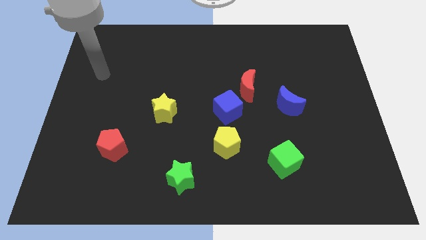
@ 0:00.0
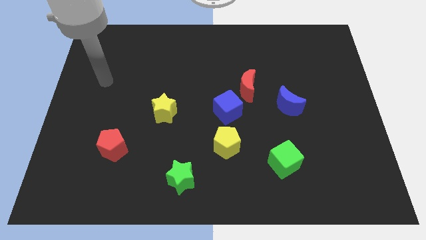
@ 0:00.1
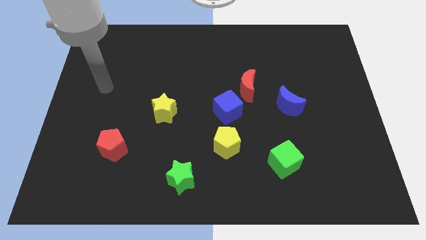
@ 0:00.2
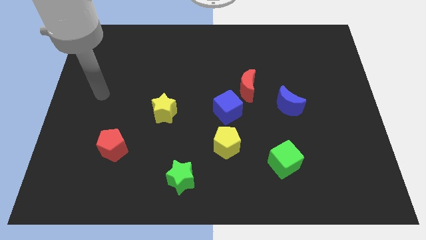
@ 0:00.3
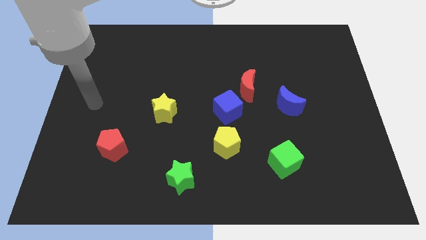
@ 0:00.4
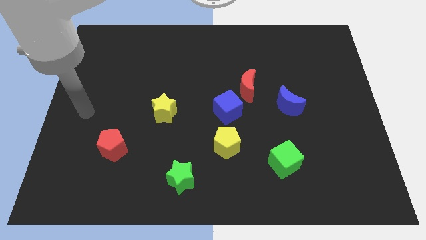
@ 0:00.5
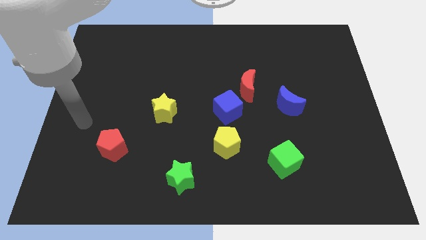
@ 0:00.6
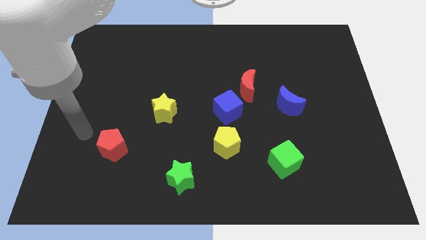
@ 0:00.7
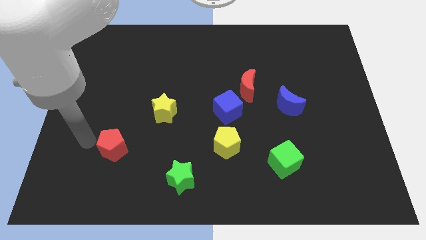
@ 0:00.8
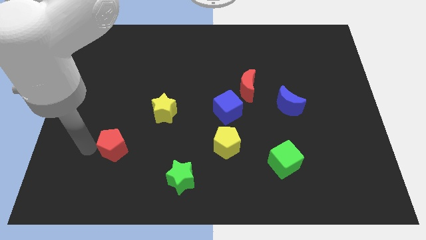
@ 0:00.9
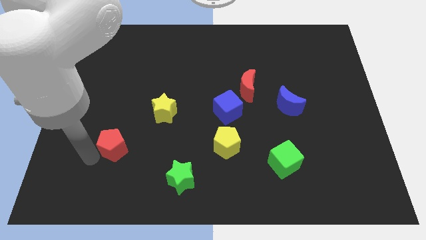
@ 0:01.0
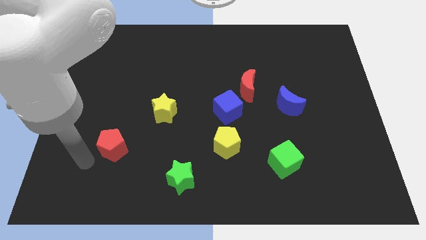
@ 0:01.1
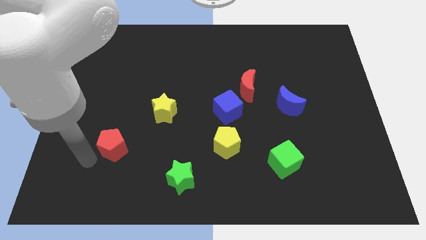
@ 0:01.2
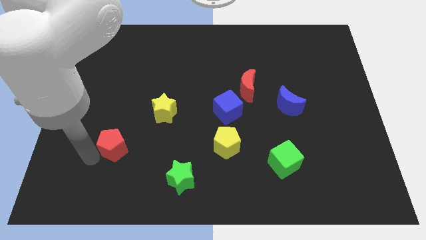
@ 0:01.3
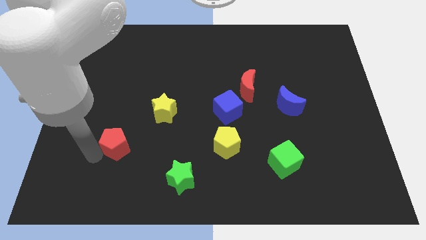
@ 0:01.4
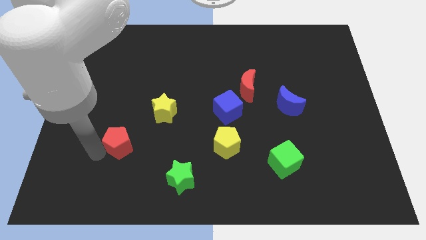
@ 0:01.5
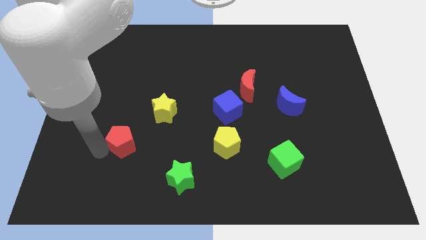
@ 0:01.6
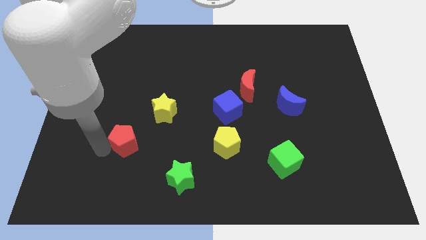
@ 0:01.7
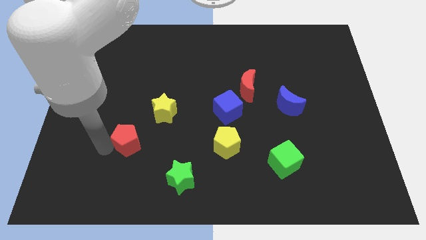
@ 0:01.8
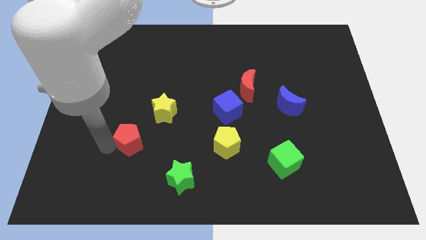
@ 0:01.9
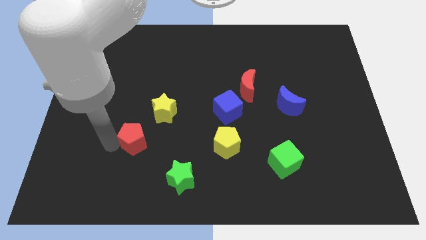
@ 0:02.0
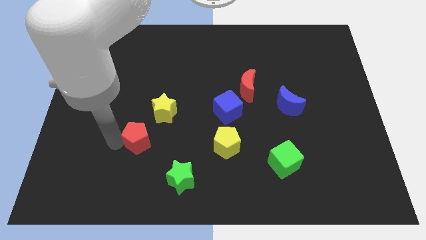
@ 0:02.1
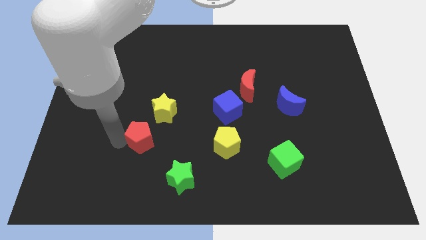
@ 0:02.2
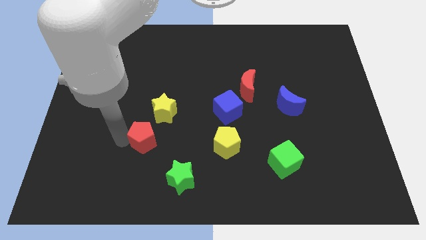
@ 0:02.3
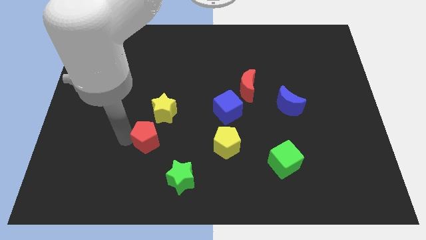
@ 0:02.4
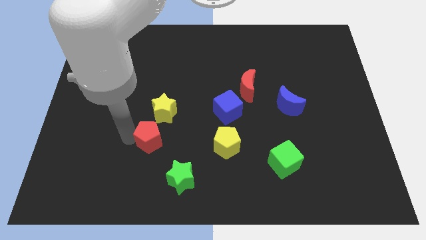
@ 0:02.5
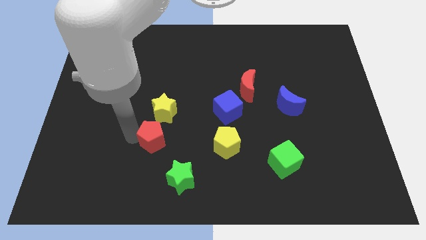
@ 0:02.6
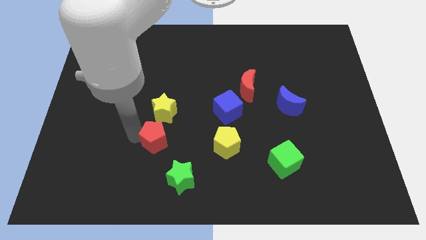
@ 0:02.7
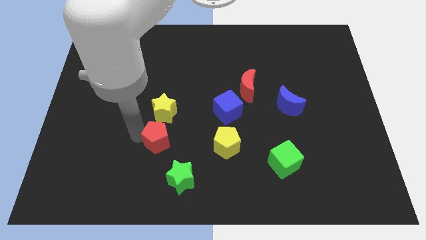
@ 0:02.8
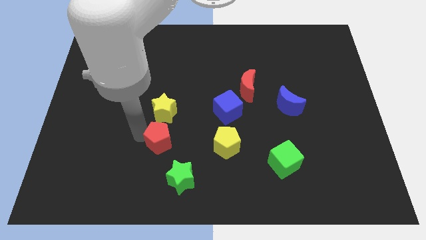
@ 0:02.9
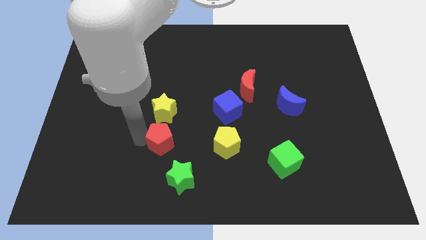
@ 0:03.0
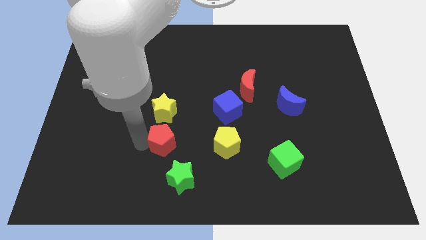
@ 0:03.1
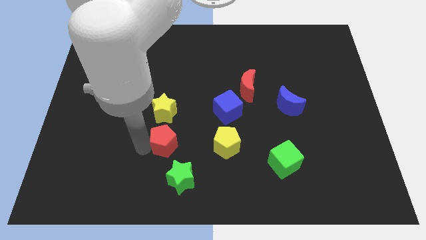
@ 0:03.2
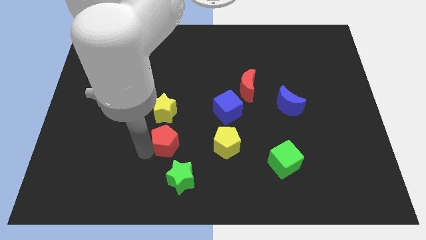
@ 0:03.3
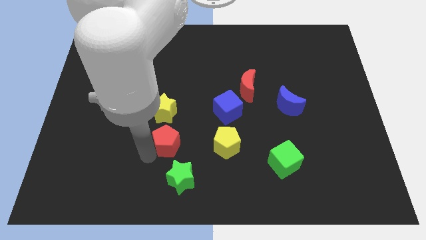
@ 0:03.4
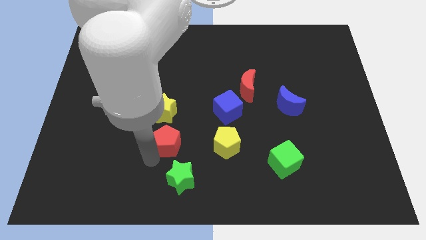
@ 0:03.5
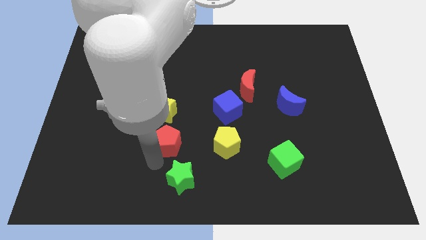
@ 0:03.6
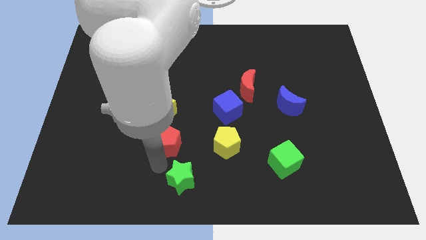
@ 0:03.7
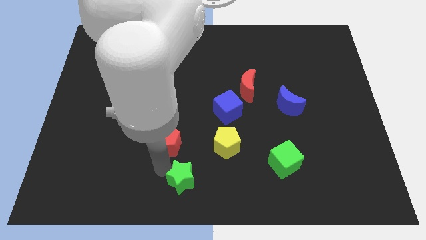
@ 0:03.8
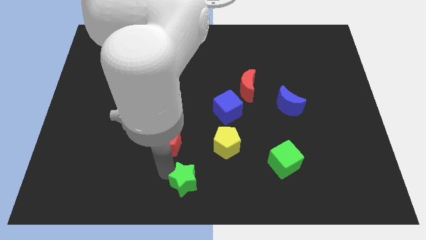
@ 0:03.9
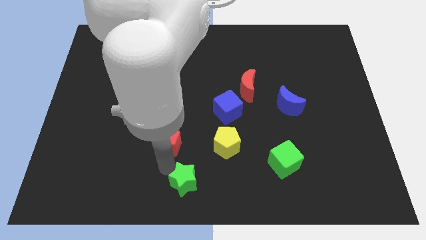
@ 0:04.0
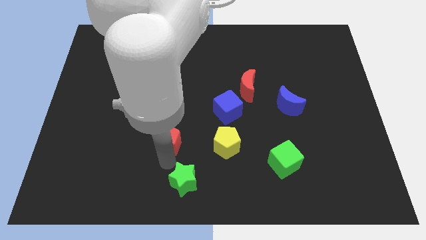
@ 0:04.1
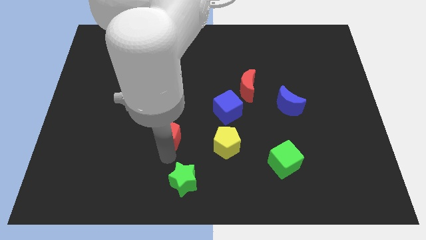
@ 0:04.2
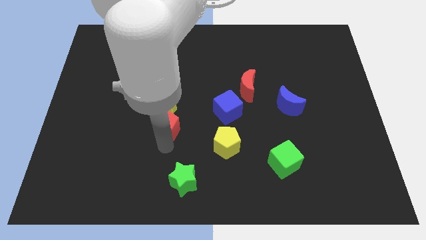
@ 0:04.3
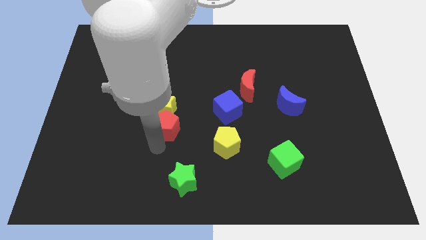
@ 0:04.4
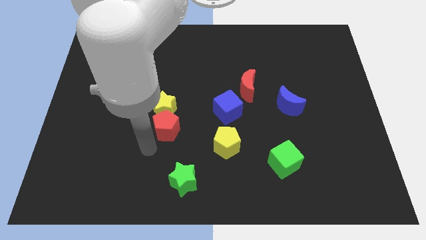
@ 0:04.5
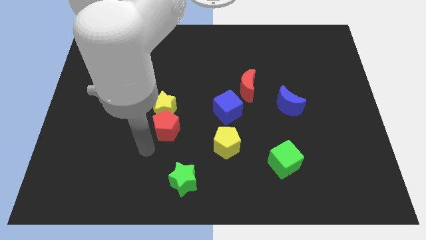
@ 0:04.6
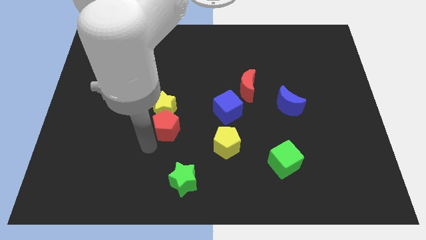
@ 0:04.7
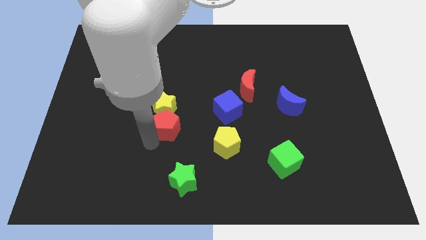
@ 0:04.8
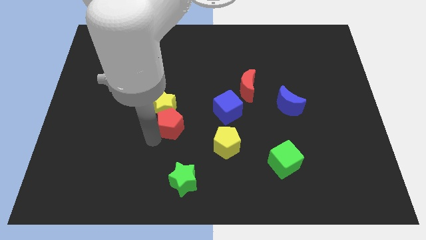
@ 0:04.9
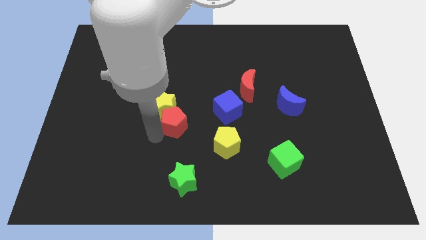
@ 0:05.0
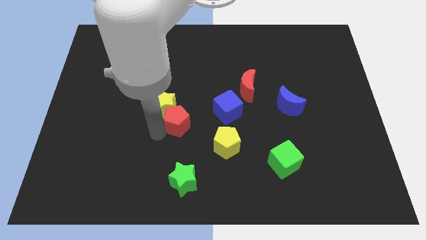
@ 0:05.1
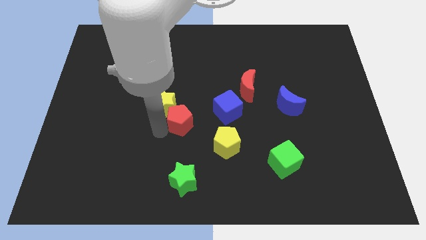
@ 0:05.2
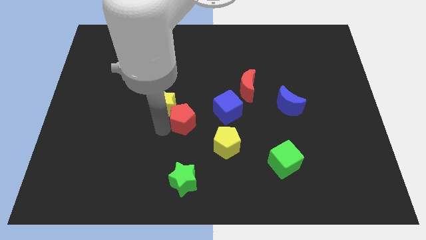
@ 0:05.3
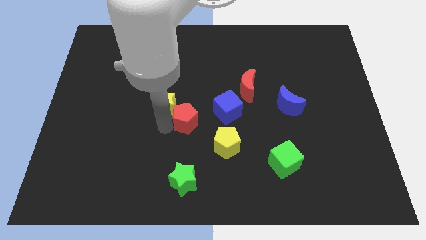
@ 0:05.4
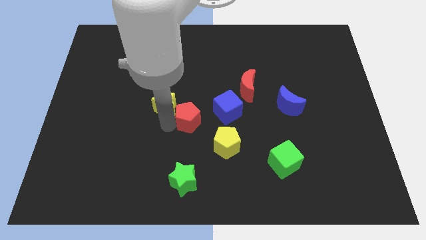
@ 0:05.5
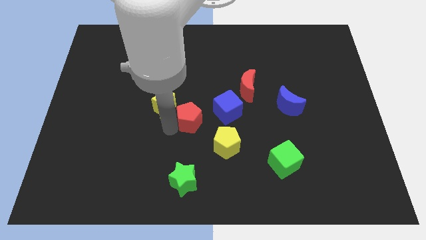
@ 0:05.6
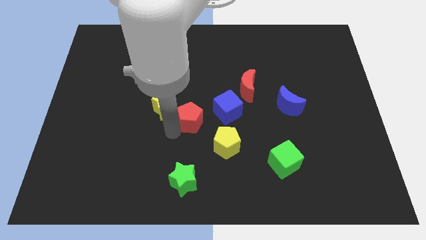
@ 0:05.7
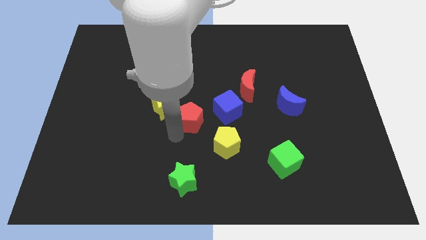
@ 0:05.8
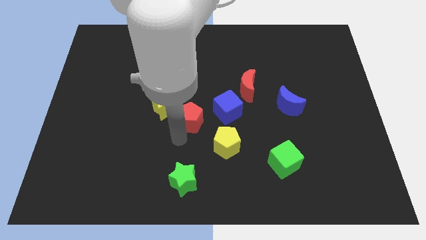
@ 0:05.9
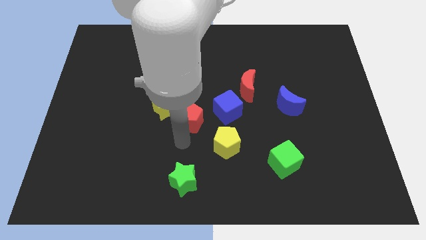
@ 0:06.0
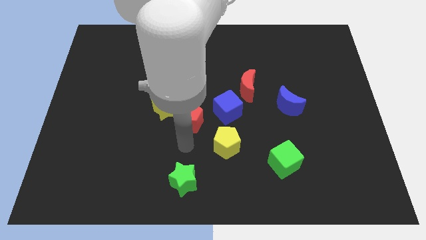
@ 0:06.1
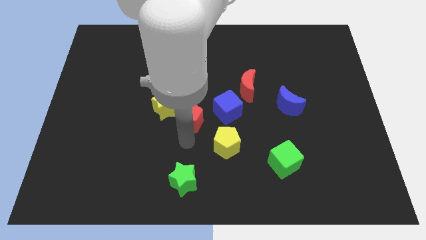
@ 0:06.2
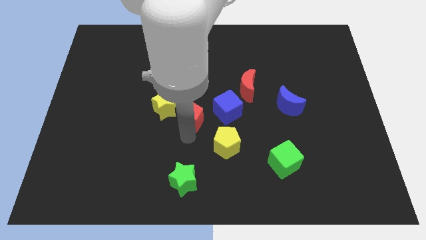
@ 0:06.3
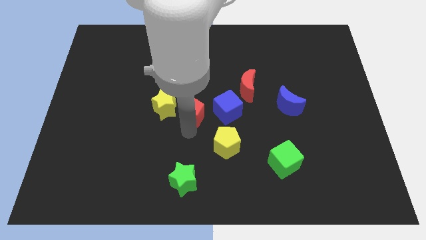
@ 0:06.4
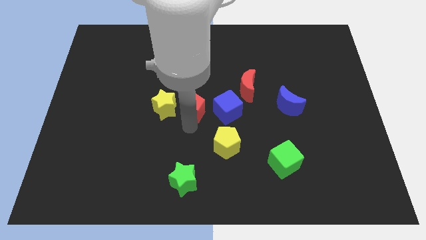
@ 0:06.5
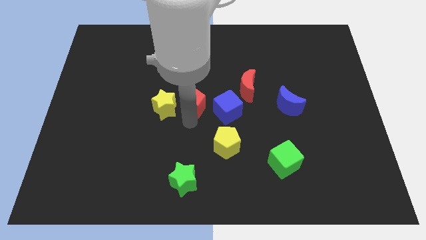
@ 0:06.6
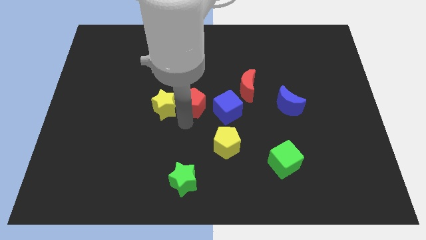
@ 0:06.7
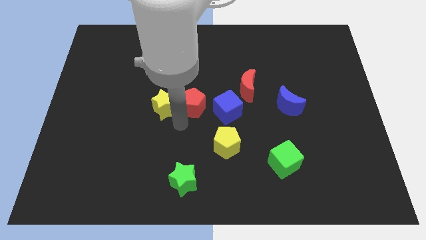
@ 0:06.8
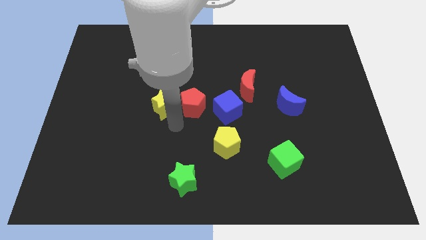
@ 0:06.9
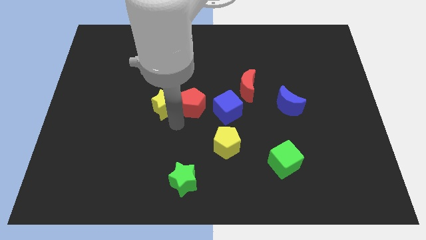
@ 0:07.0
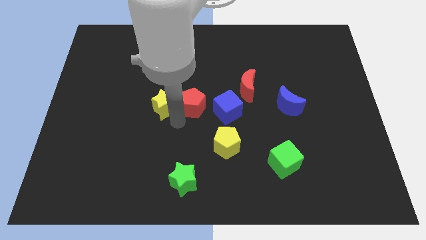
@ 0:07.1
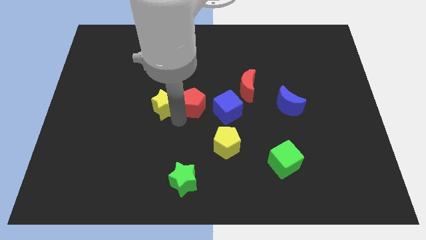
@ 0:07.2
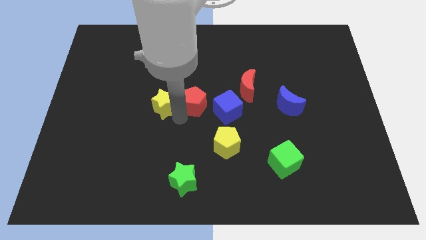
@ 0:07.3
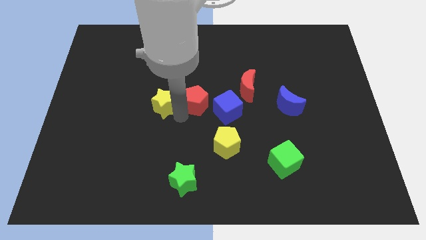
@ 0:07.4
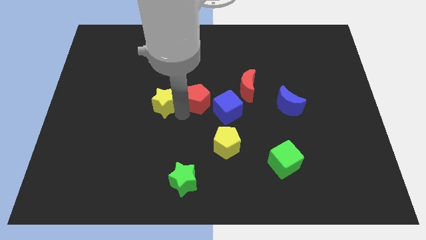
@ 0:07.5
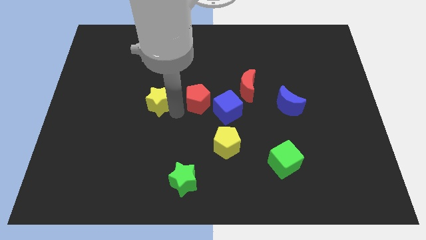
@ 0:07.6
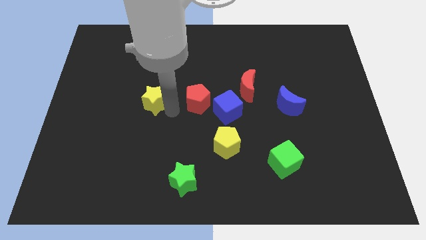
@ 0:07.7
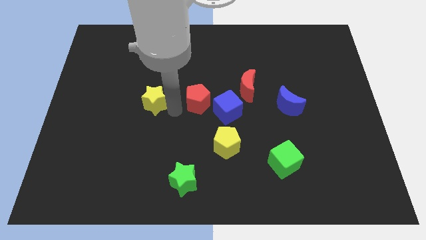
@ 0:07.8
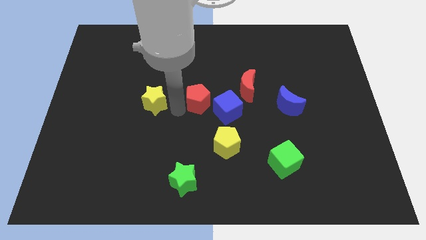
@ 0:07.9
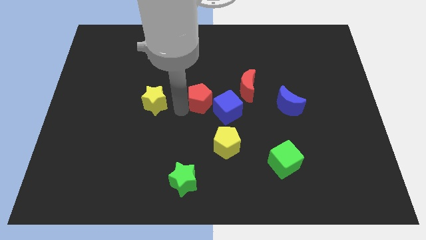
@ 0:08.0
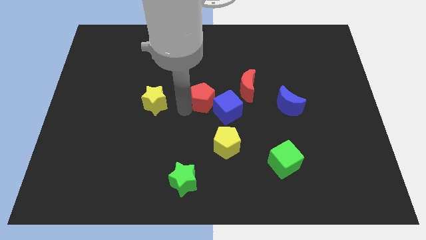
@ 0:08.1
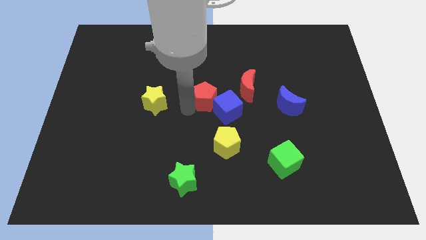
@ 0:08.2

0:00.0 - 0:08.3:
put the red pentagon to the top side of the yellow pentagon
